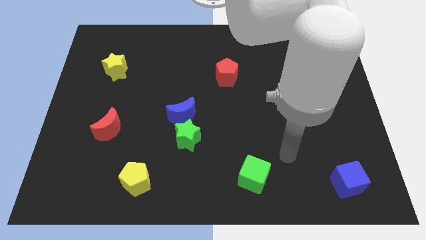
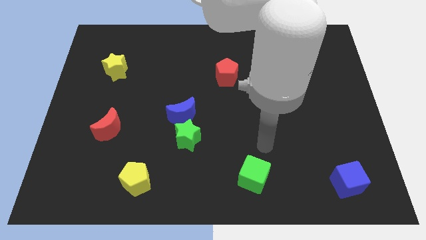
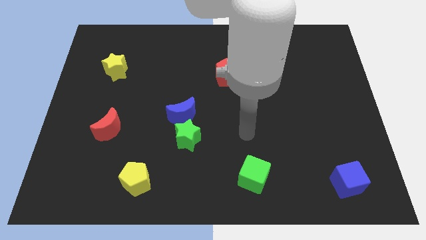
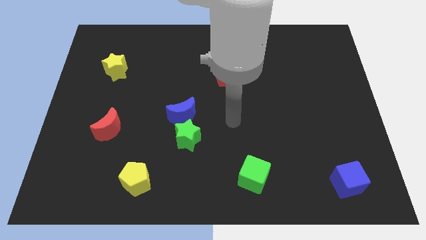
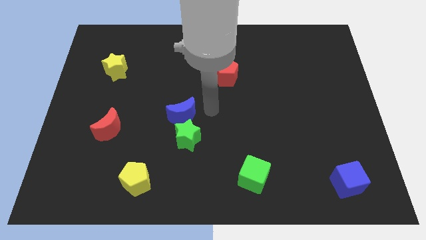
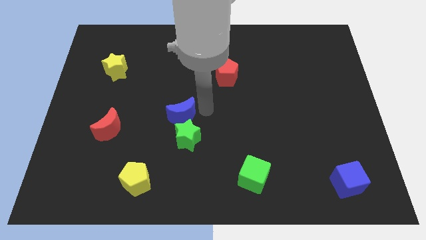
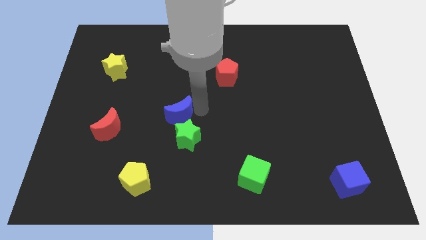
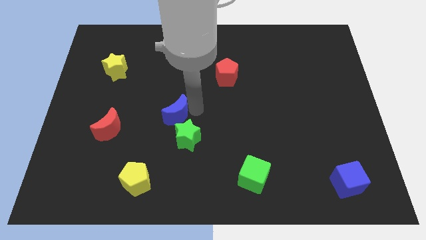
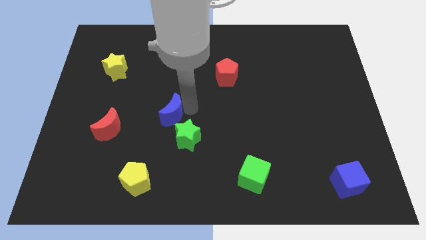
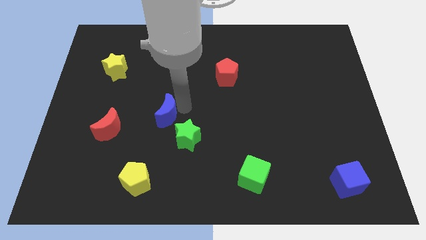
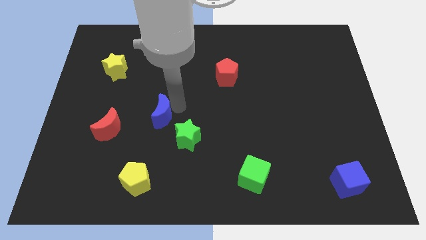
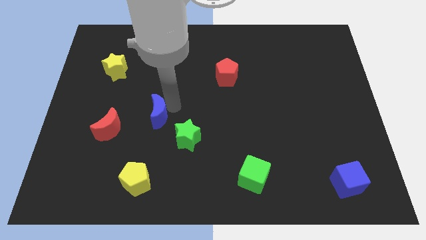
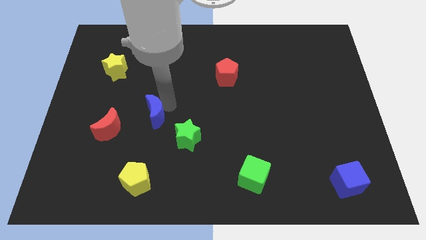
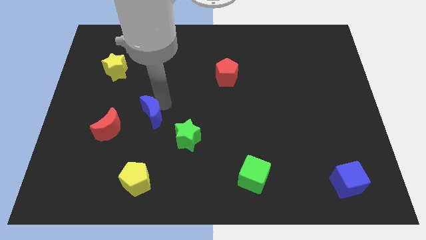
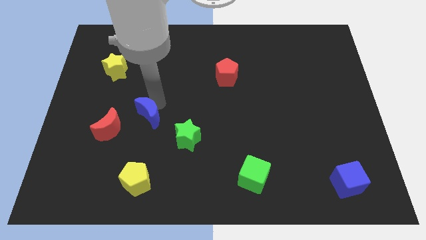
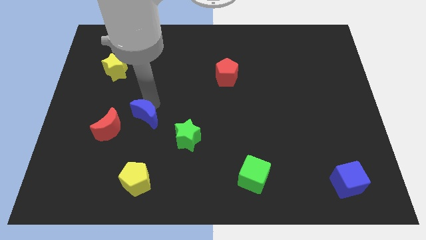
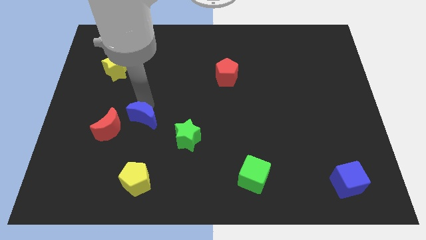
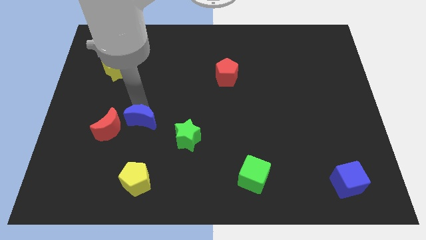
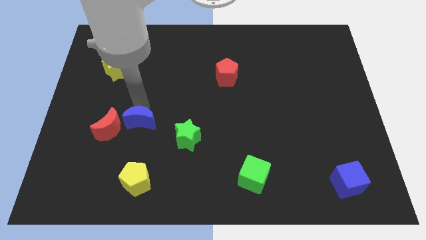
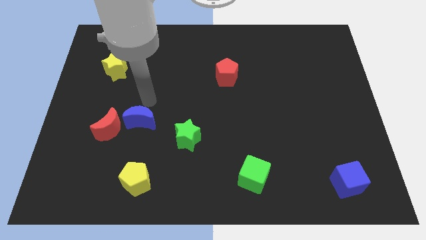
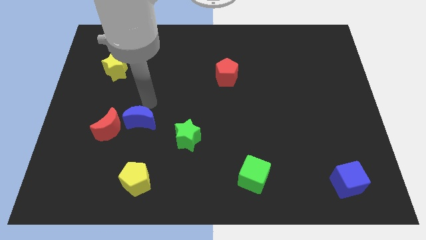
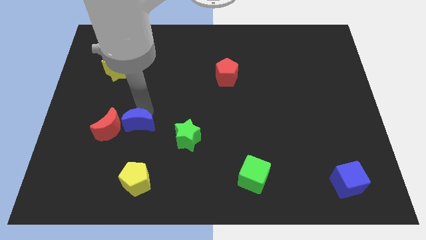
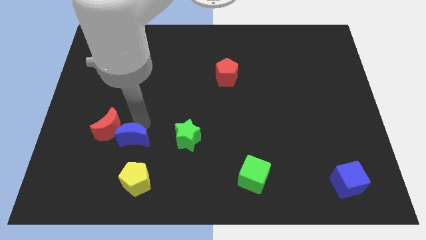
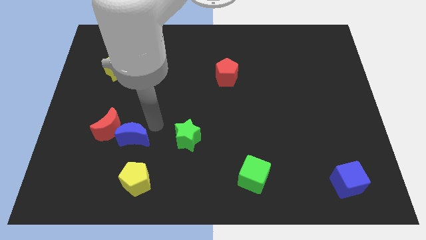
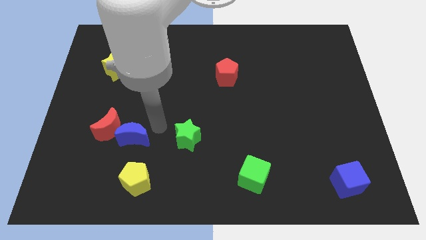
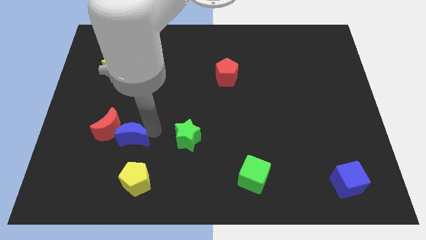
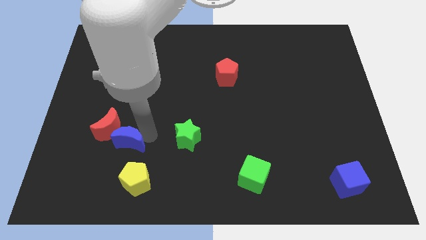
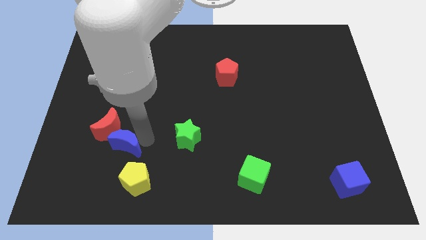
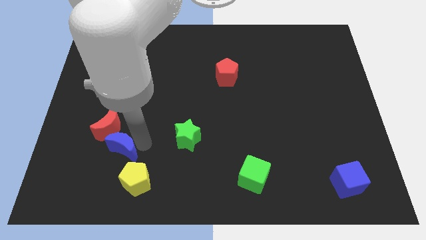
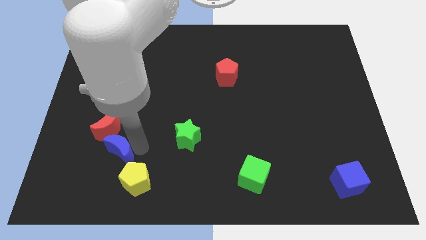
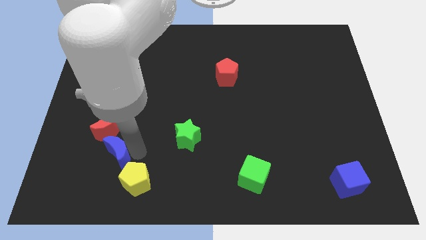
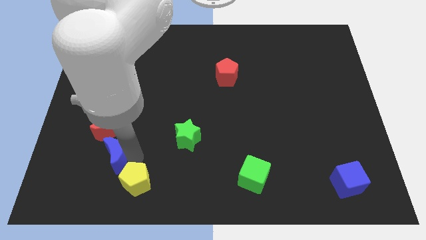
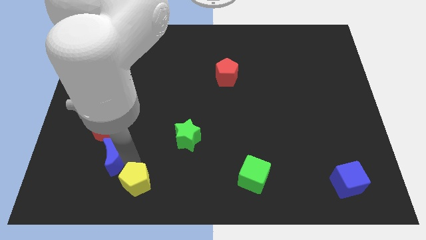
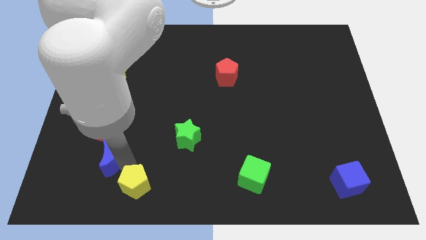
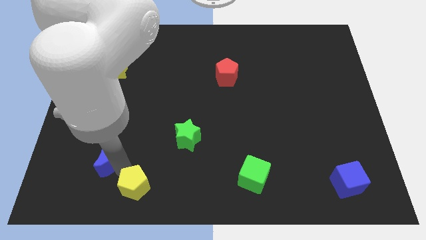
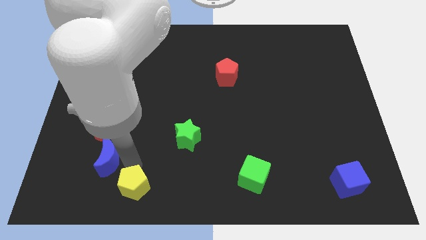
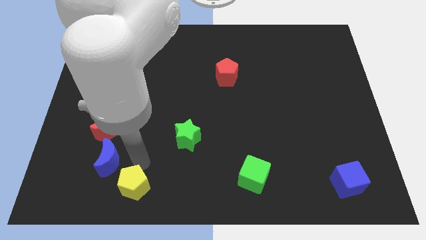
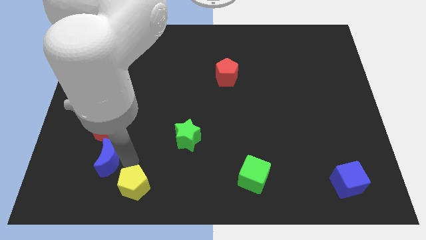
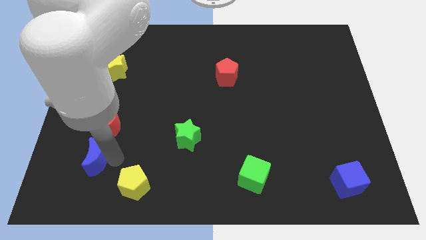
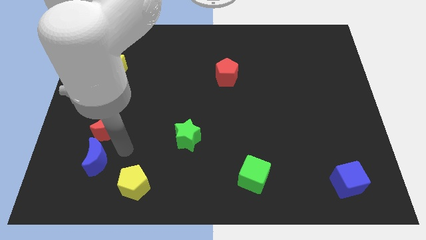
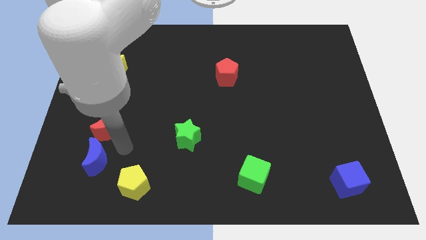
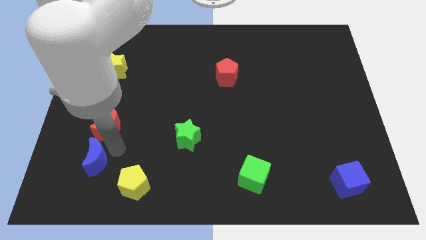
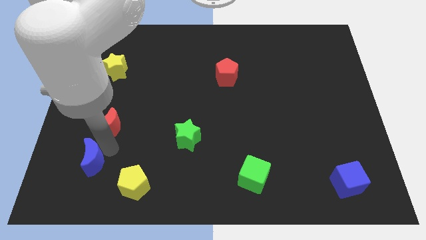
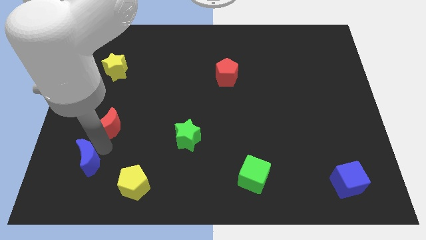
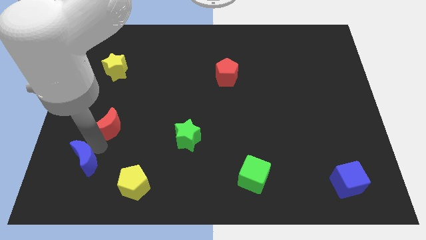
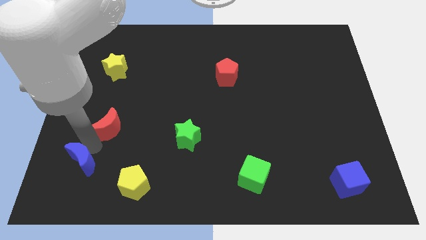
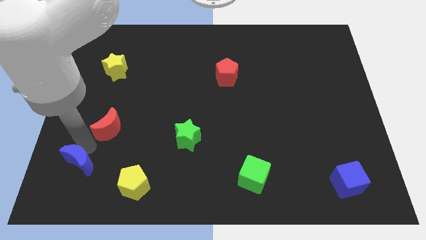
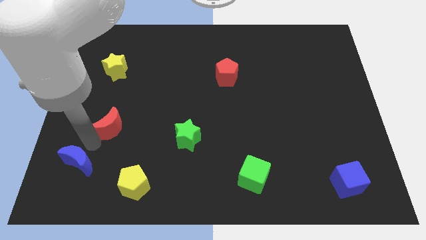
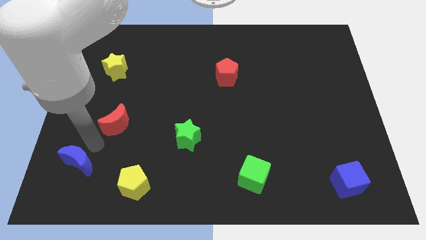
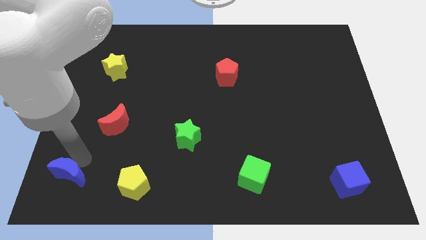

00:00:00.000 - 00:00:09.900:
put the blue moon to the lower left corner

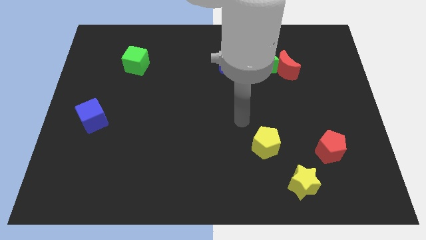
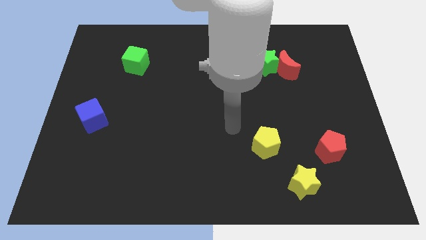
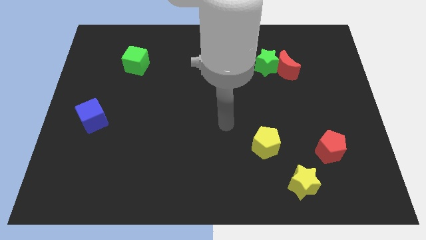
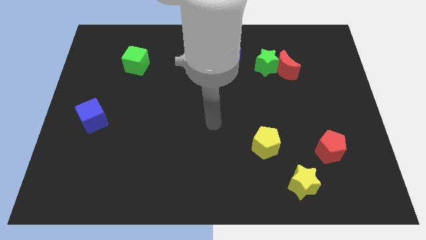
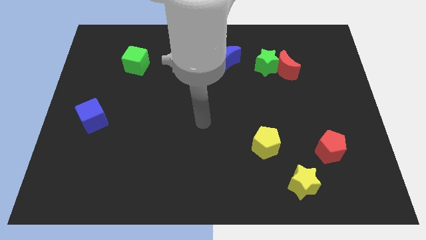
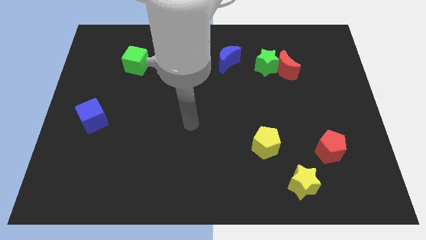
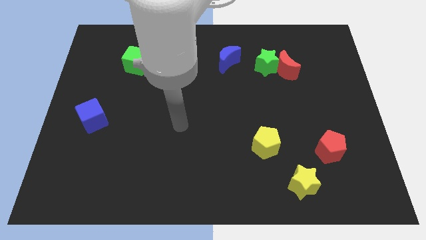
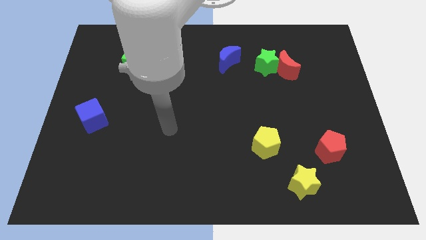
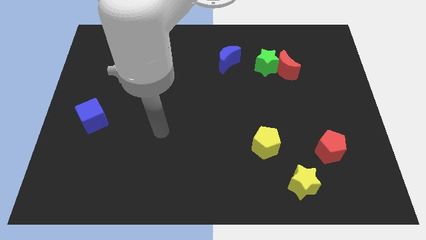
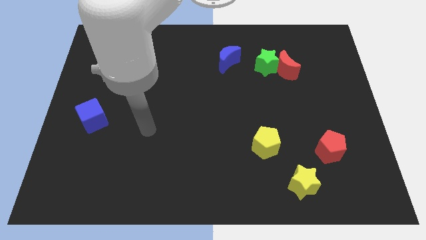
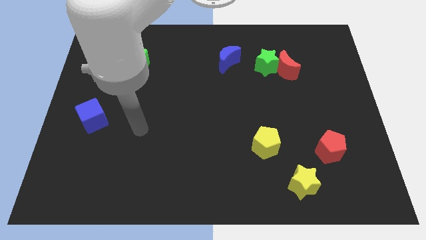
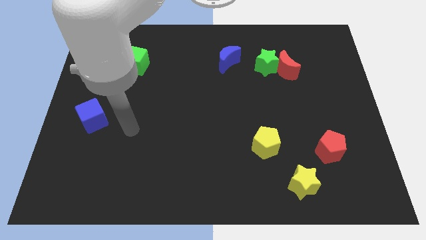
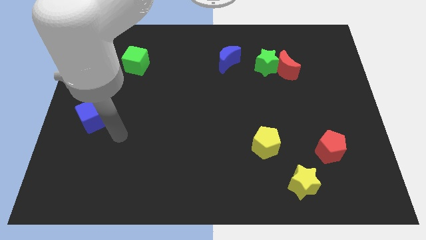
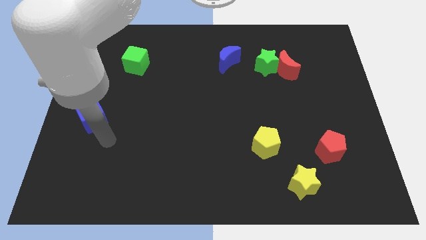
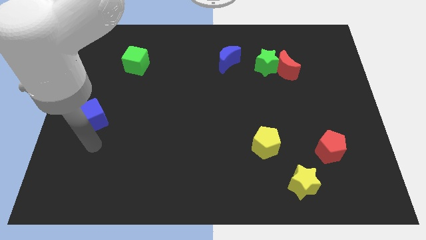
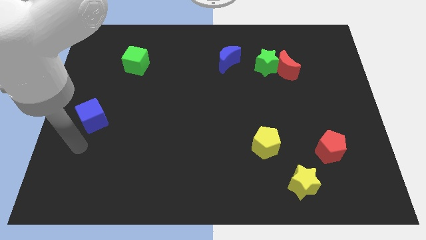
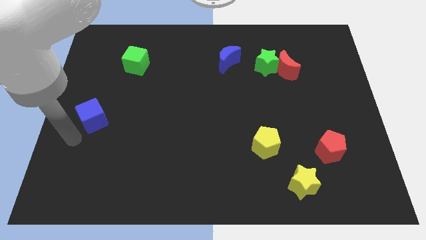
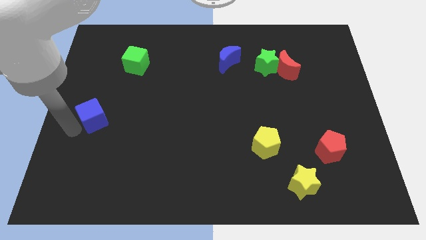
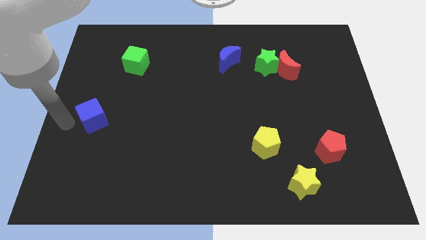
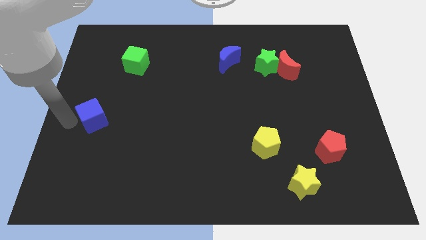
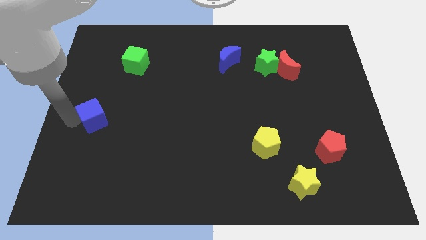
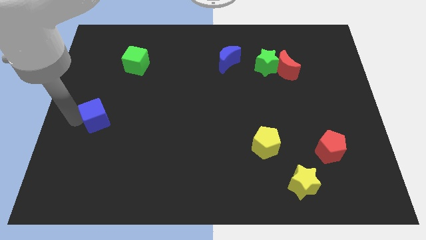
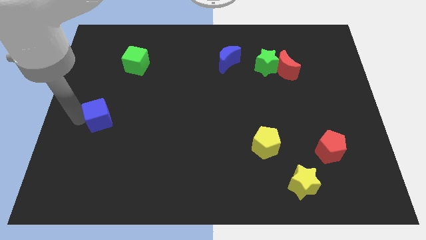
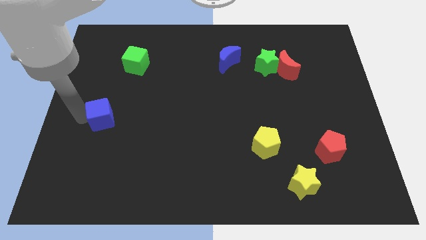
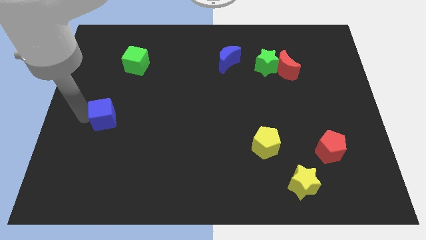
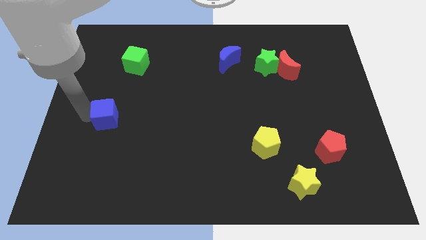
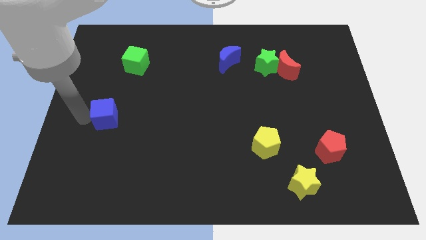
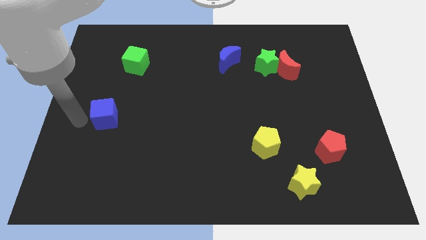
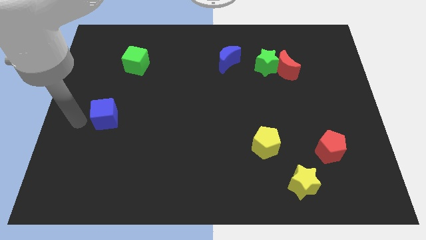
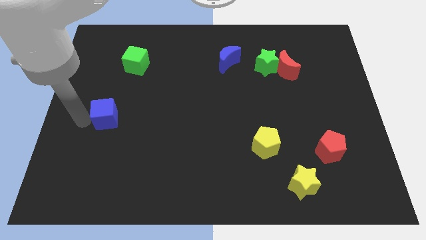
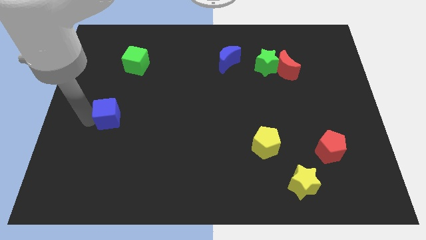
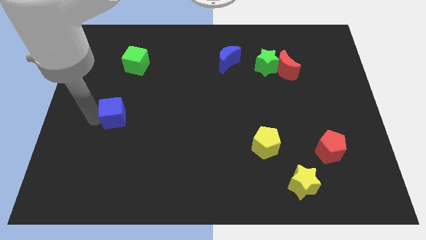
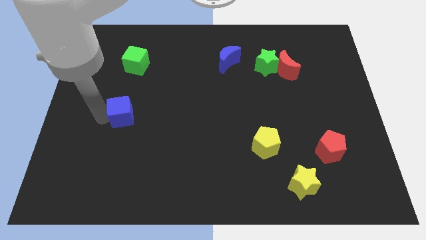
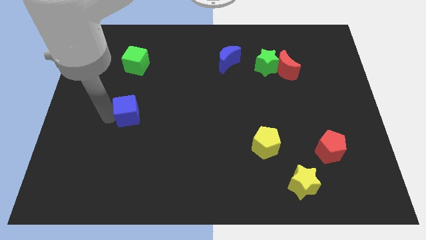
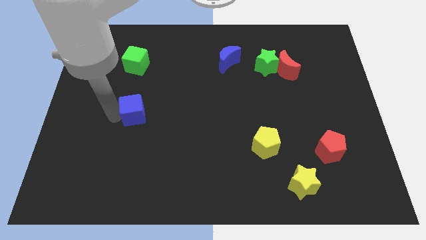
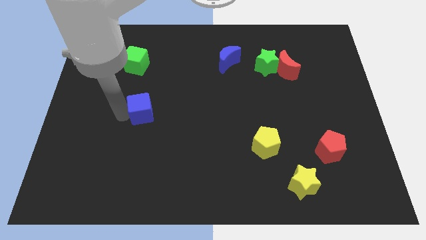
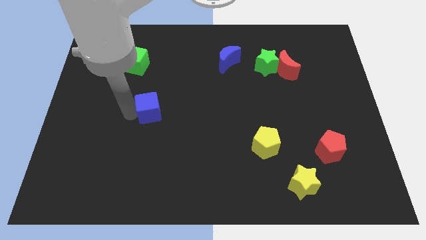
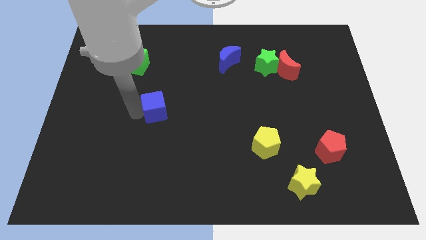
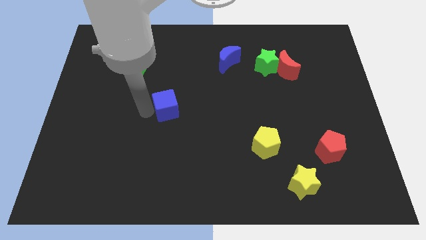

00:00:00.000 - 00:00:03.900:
slide the blue cube to the center of the board
